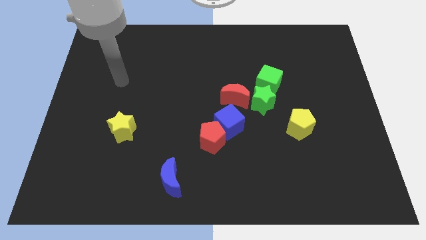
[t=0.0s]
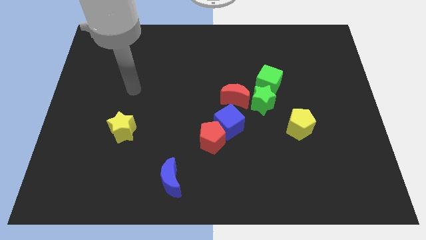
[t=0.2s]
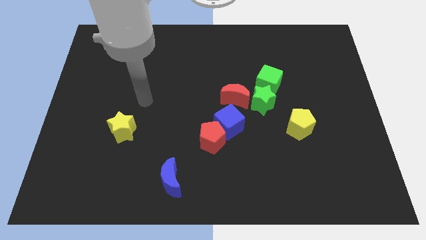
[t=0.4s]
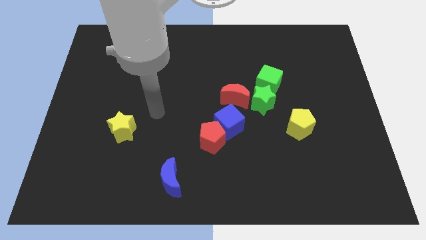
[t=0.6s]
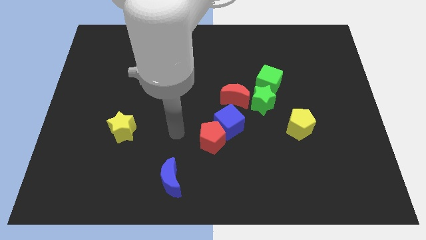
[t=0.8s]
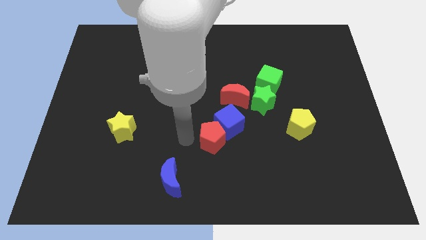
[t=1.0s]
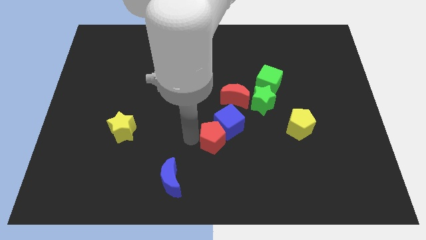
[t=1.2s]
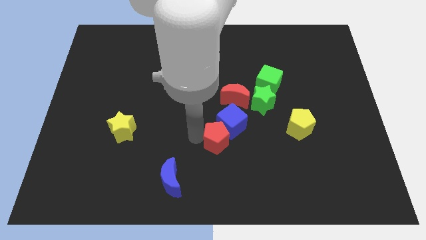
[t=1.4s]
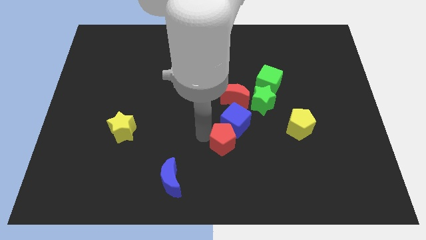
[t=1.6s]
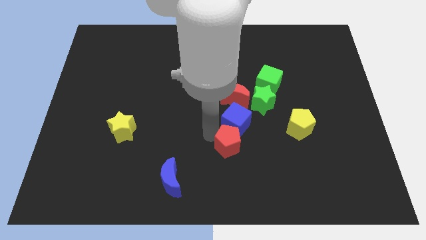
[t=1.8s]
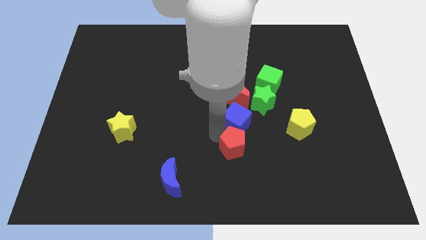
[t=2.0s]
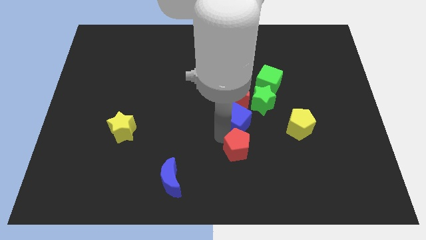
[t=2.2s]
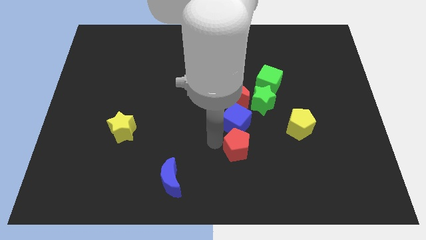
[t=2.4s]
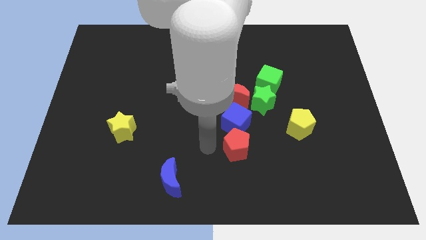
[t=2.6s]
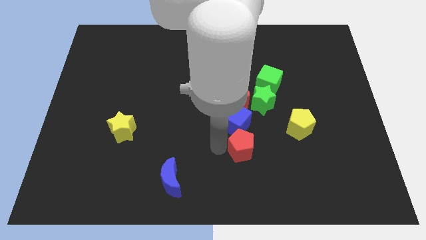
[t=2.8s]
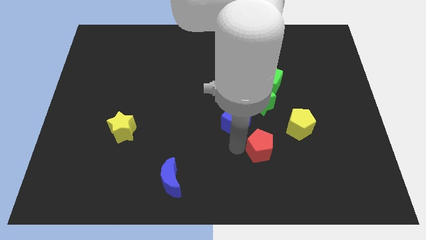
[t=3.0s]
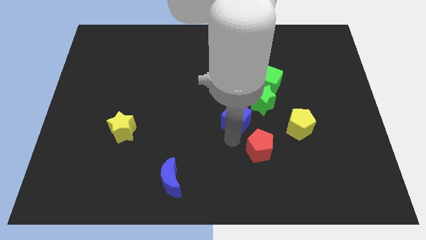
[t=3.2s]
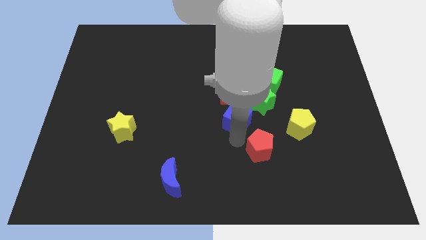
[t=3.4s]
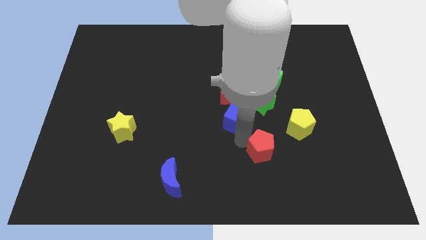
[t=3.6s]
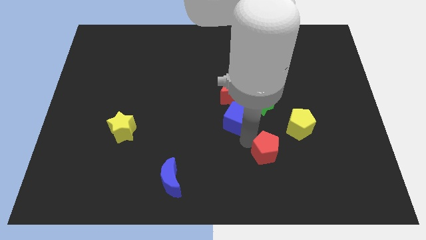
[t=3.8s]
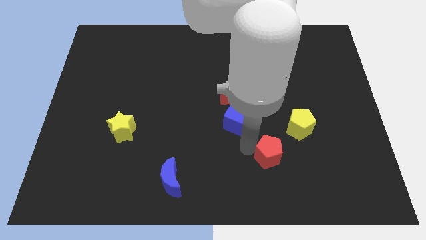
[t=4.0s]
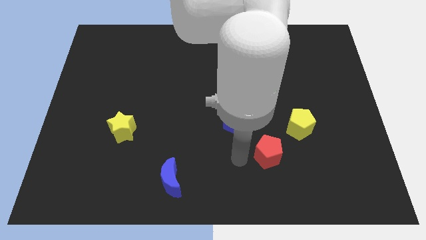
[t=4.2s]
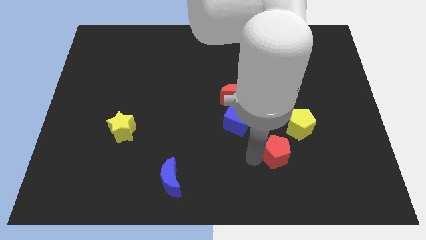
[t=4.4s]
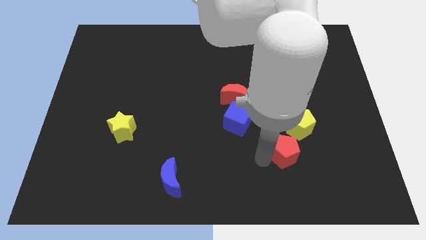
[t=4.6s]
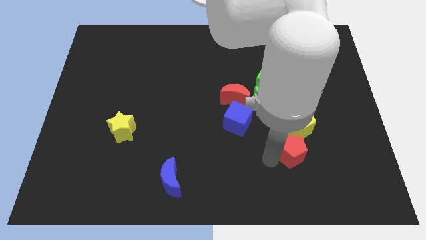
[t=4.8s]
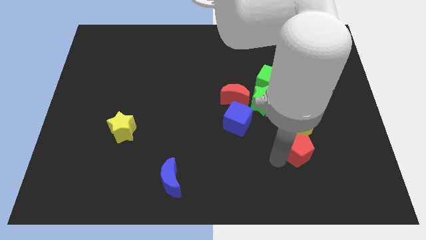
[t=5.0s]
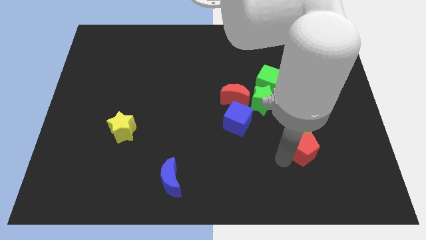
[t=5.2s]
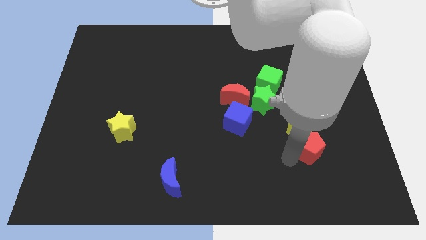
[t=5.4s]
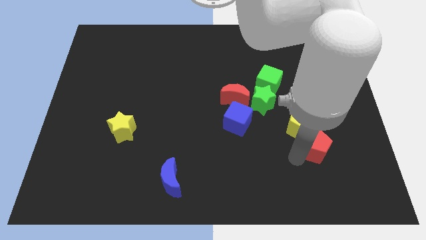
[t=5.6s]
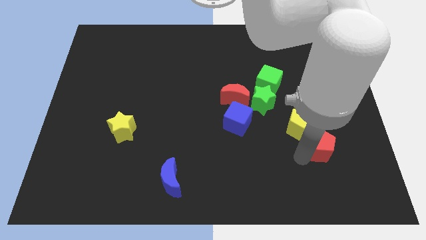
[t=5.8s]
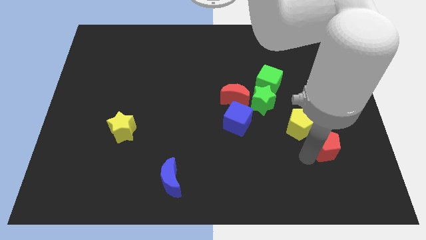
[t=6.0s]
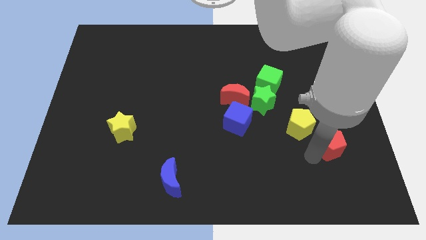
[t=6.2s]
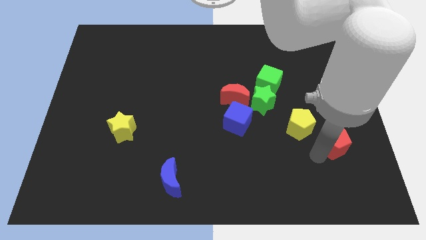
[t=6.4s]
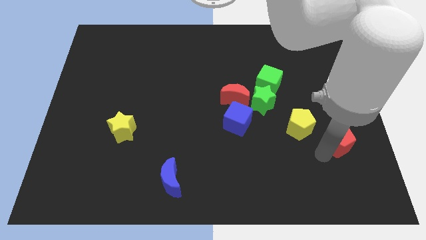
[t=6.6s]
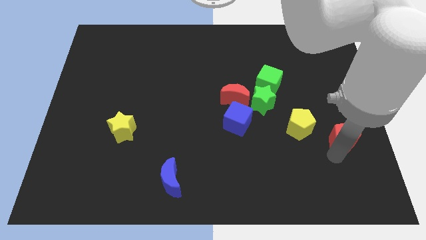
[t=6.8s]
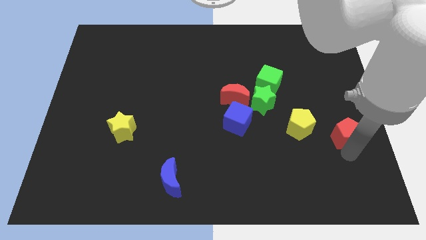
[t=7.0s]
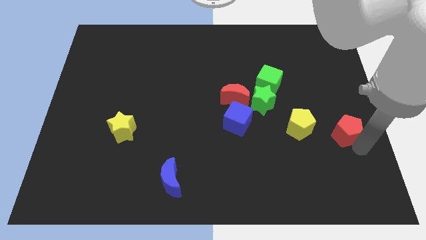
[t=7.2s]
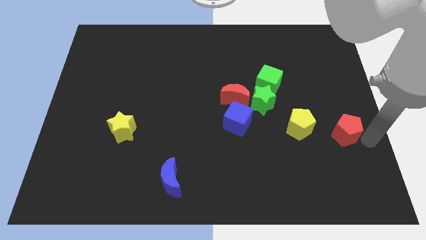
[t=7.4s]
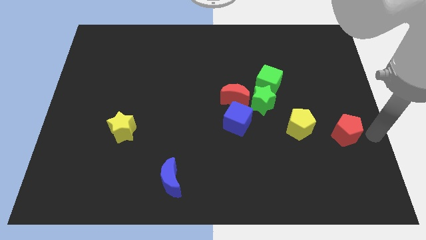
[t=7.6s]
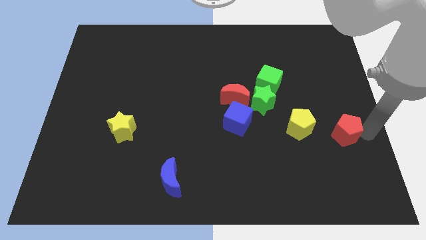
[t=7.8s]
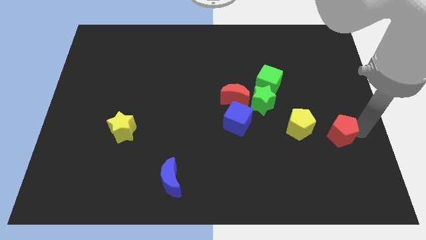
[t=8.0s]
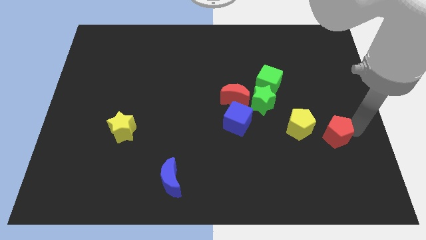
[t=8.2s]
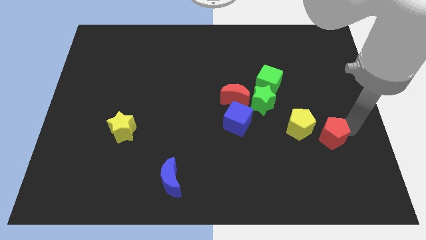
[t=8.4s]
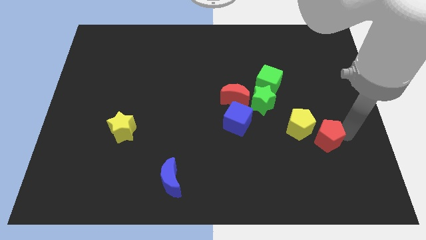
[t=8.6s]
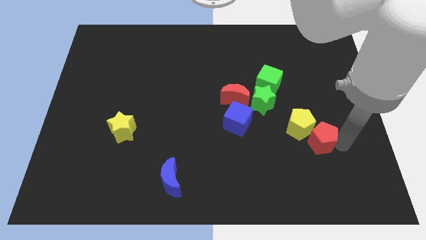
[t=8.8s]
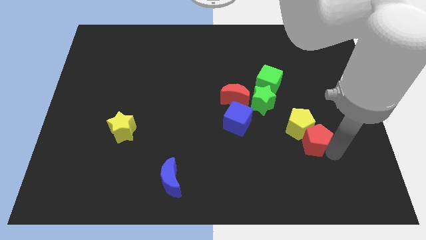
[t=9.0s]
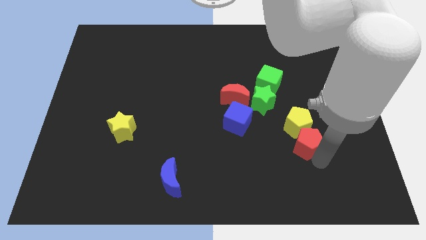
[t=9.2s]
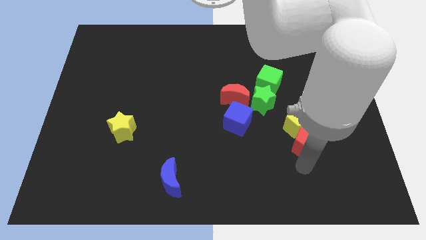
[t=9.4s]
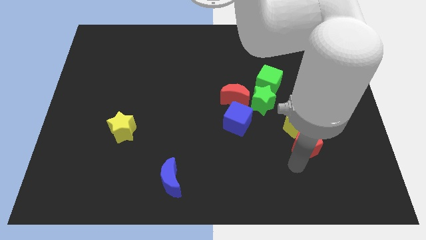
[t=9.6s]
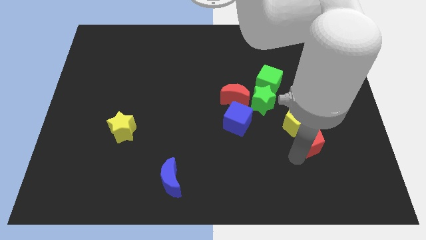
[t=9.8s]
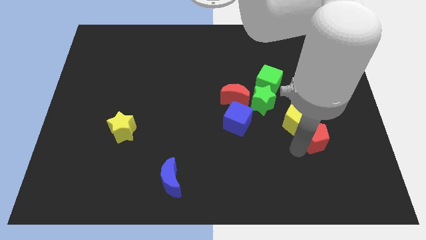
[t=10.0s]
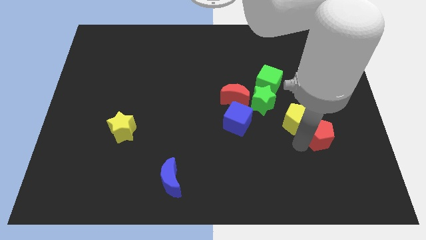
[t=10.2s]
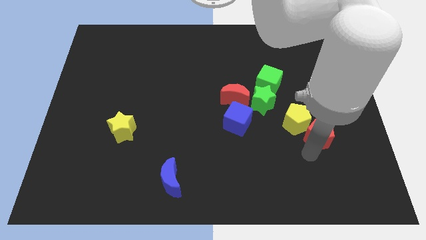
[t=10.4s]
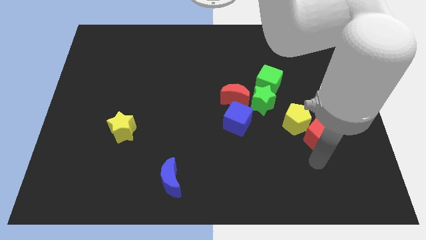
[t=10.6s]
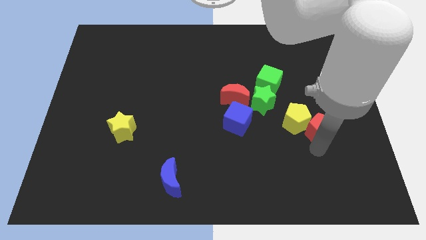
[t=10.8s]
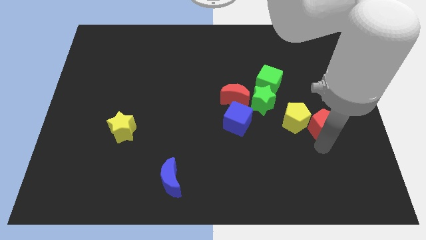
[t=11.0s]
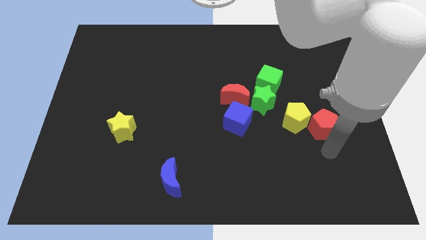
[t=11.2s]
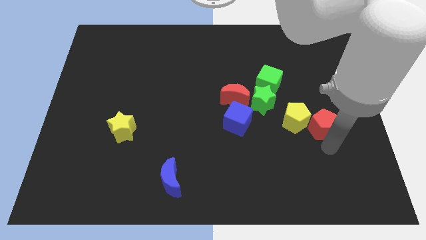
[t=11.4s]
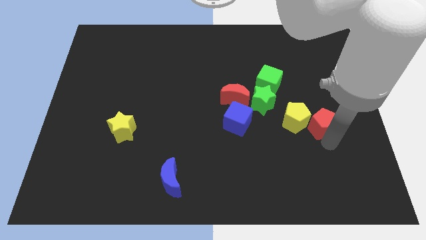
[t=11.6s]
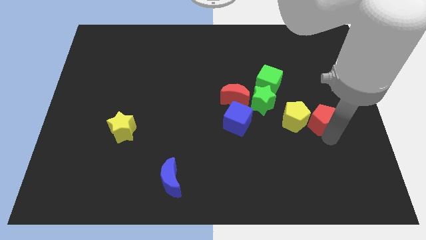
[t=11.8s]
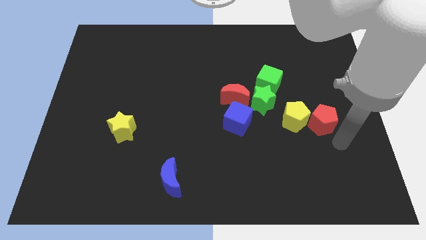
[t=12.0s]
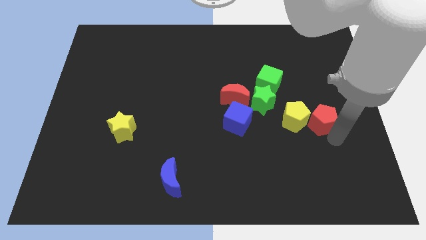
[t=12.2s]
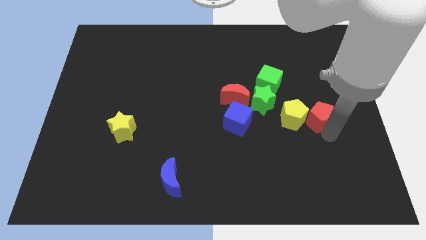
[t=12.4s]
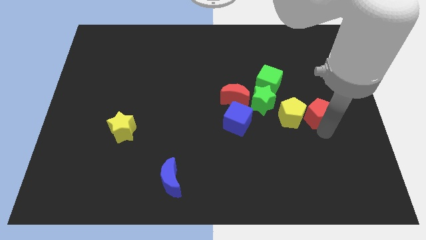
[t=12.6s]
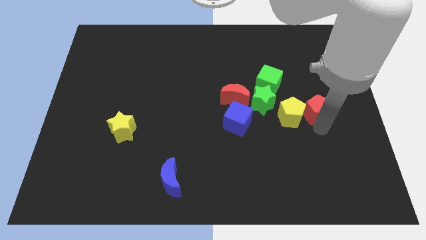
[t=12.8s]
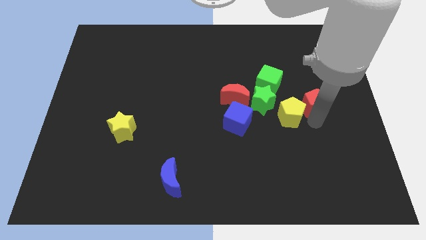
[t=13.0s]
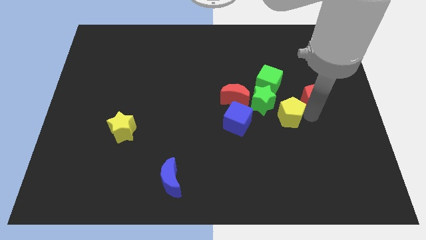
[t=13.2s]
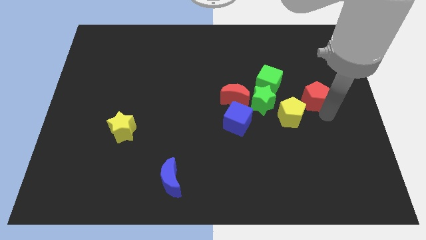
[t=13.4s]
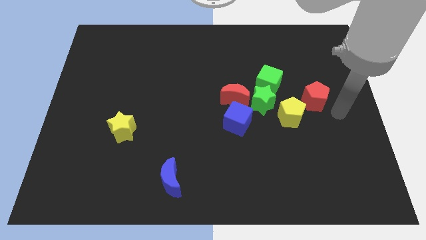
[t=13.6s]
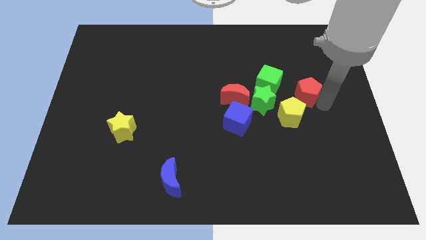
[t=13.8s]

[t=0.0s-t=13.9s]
push the red pentagon above the yellow pentagon
